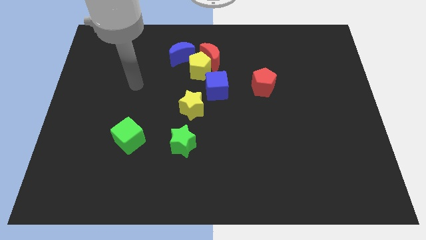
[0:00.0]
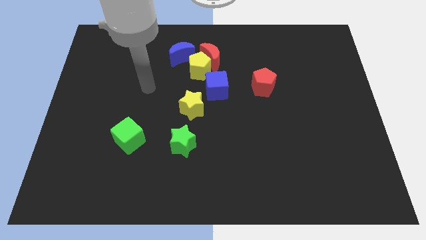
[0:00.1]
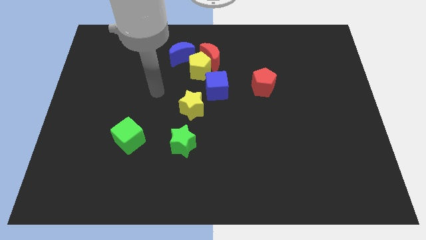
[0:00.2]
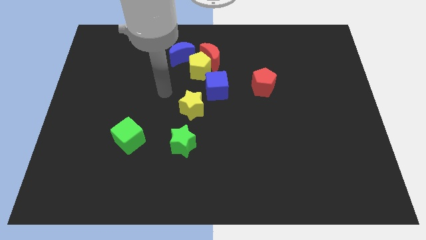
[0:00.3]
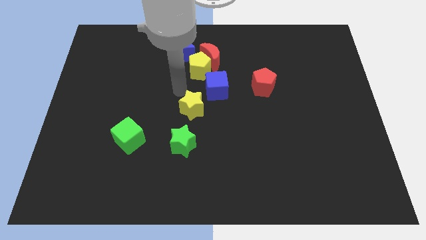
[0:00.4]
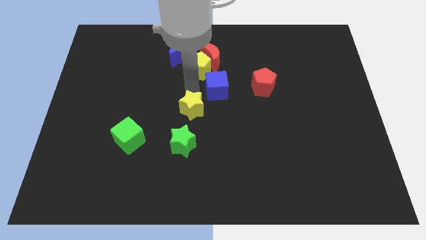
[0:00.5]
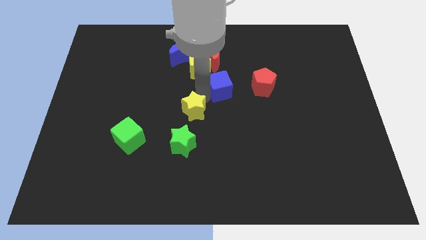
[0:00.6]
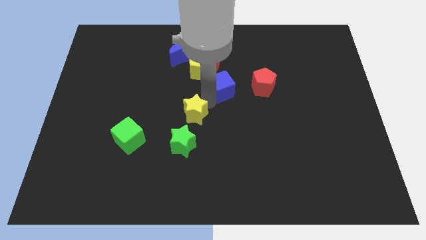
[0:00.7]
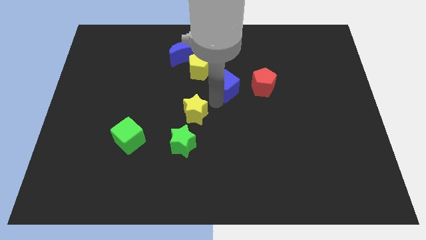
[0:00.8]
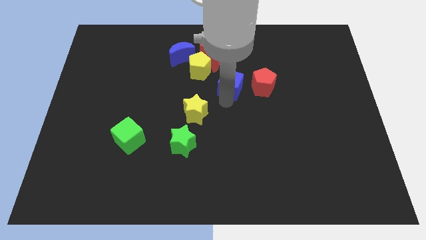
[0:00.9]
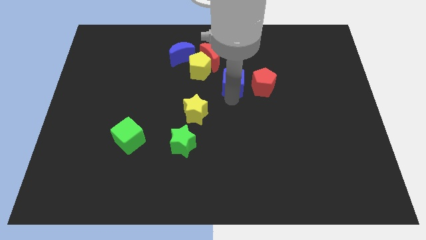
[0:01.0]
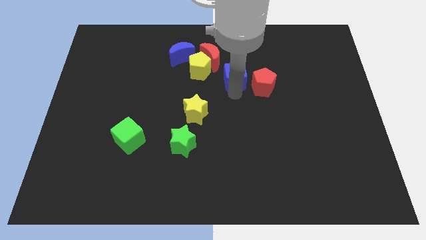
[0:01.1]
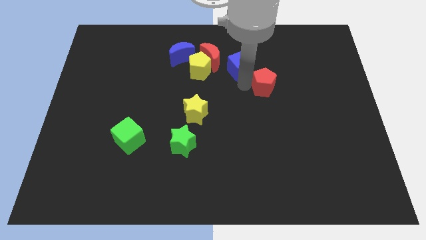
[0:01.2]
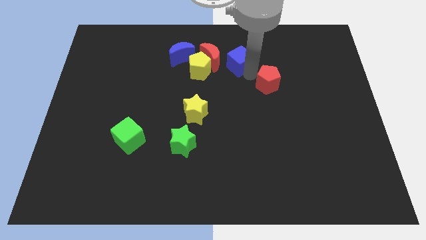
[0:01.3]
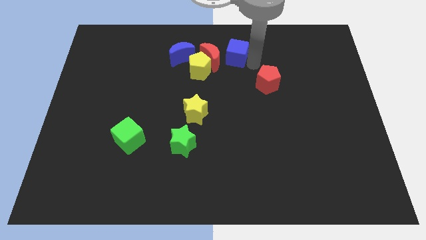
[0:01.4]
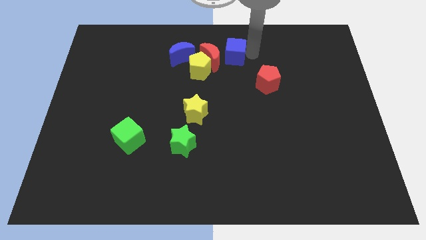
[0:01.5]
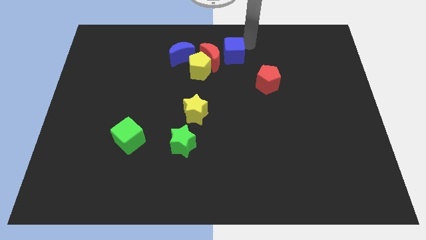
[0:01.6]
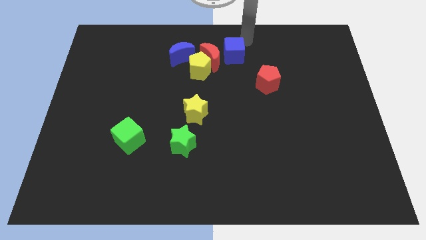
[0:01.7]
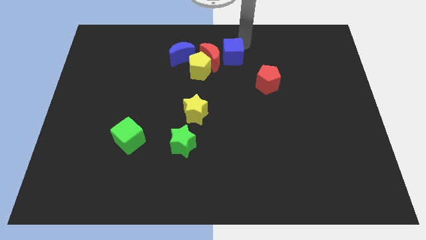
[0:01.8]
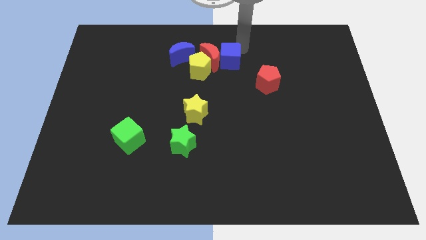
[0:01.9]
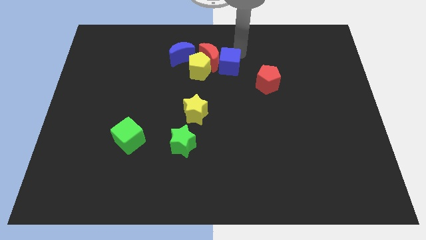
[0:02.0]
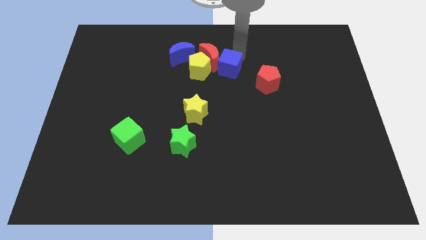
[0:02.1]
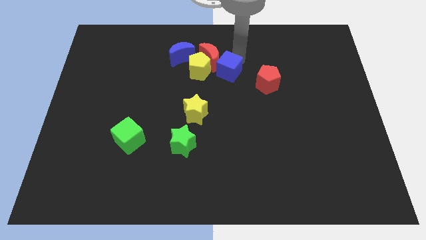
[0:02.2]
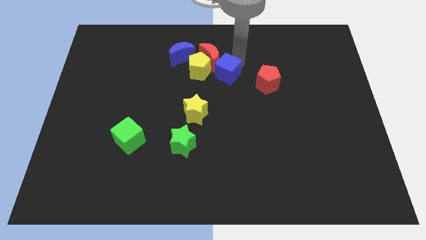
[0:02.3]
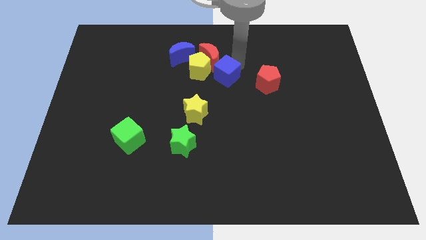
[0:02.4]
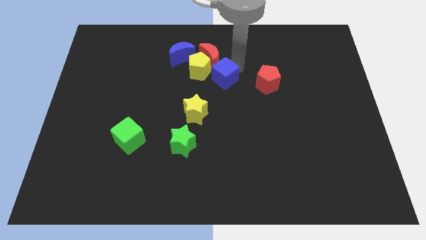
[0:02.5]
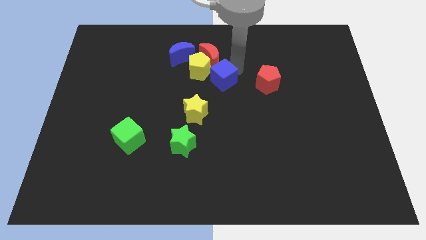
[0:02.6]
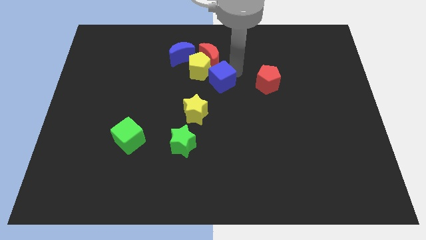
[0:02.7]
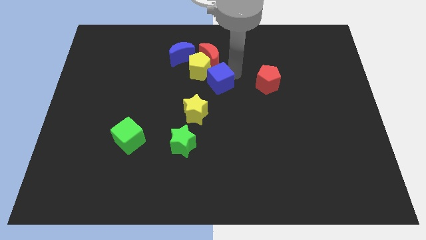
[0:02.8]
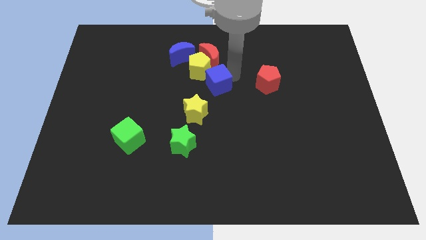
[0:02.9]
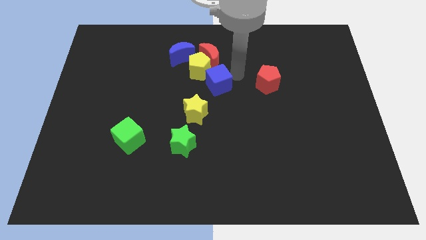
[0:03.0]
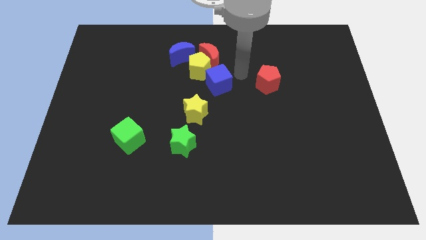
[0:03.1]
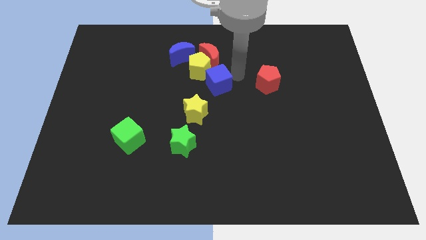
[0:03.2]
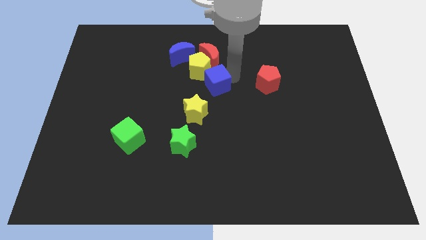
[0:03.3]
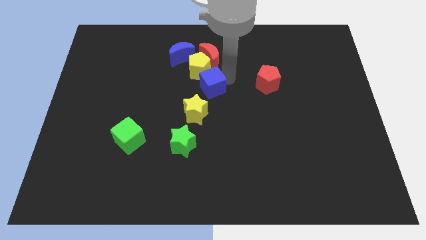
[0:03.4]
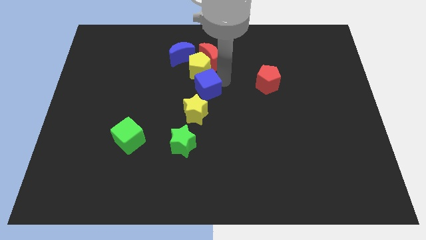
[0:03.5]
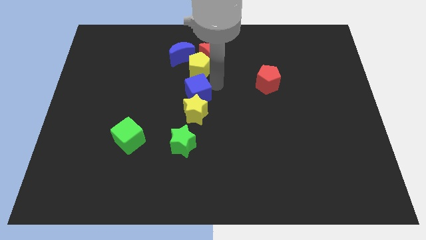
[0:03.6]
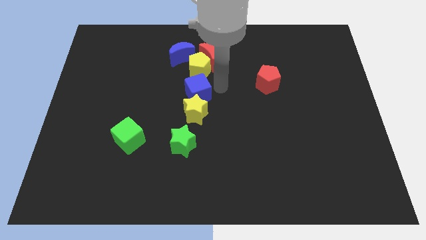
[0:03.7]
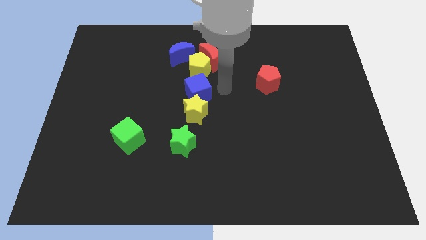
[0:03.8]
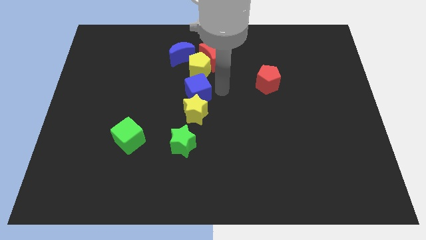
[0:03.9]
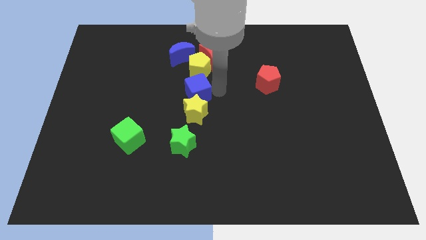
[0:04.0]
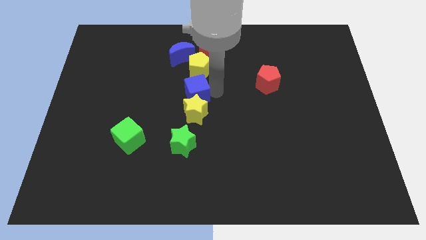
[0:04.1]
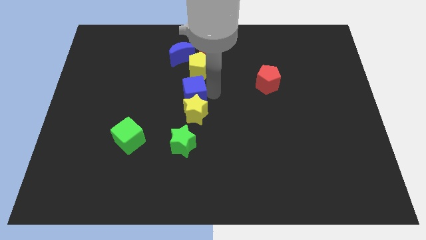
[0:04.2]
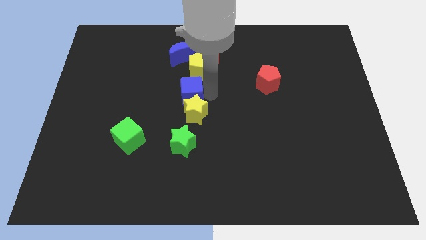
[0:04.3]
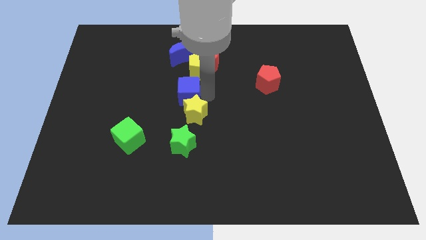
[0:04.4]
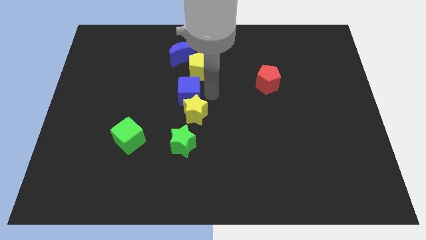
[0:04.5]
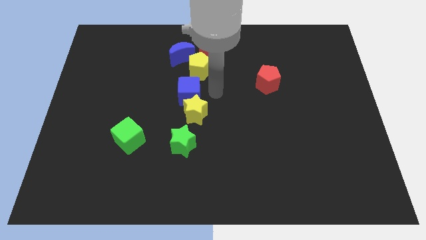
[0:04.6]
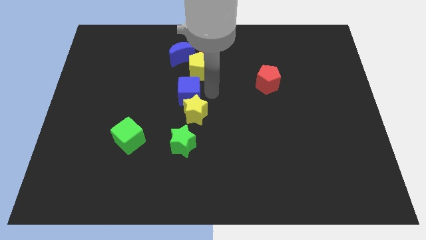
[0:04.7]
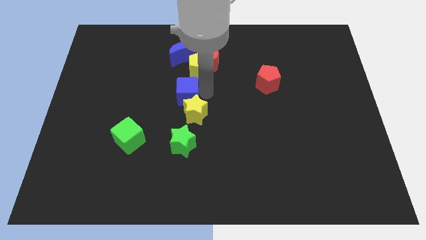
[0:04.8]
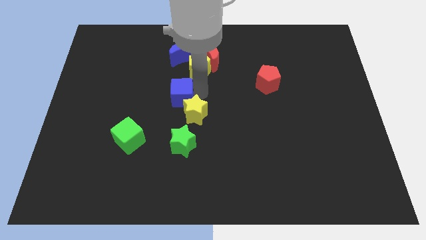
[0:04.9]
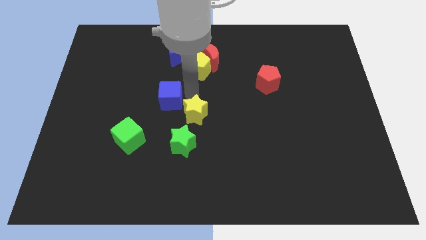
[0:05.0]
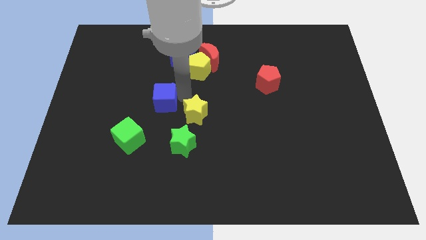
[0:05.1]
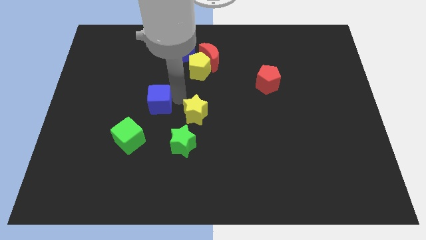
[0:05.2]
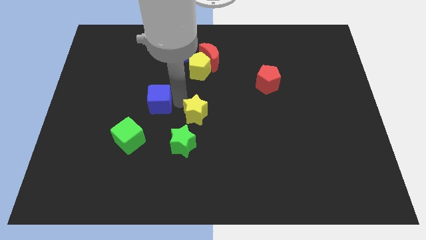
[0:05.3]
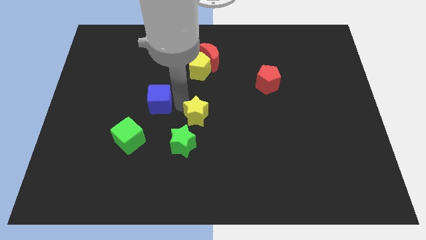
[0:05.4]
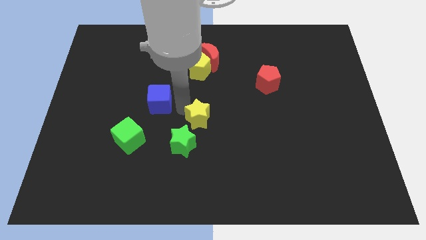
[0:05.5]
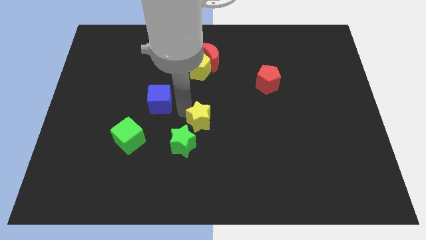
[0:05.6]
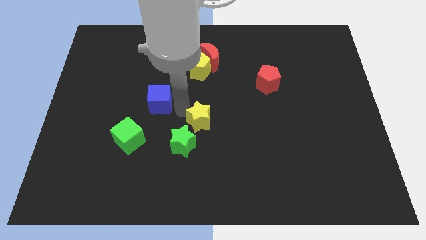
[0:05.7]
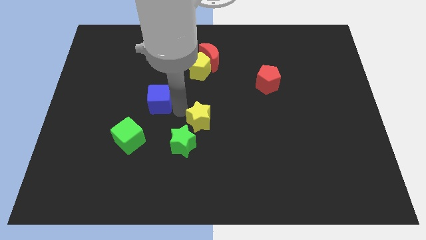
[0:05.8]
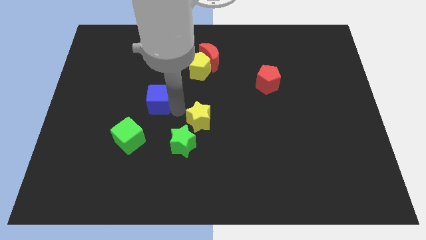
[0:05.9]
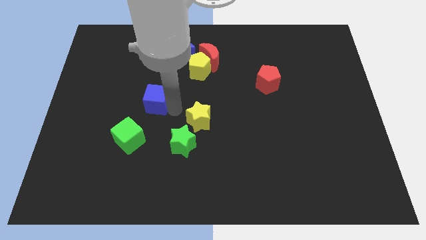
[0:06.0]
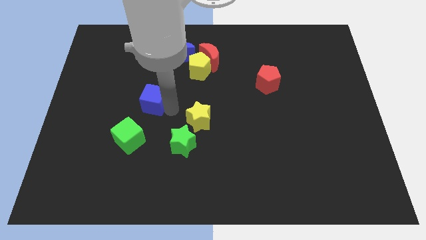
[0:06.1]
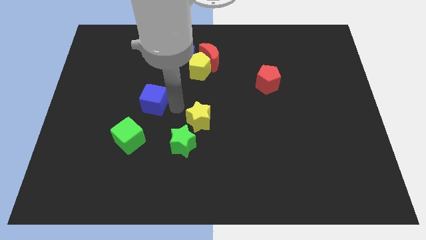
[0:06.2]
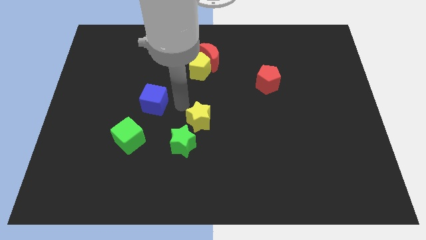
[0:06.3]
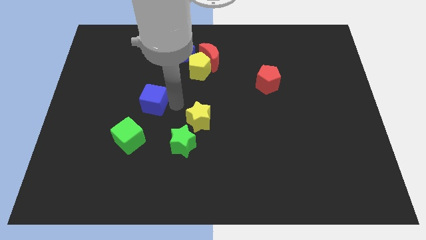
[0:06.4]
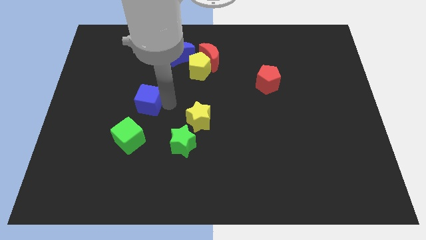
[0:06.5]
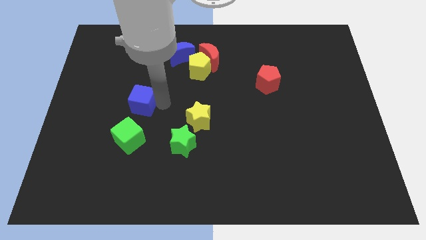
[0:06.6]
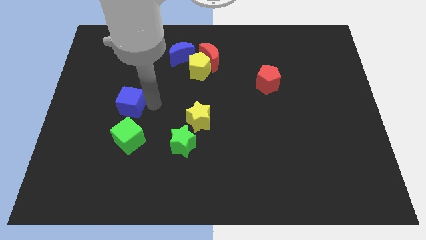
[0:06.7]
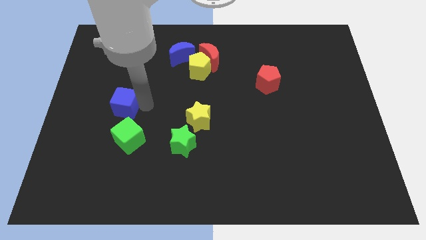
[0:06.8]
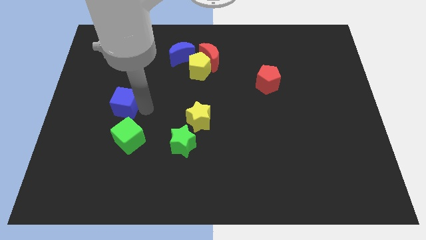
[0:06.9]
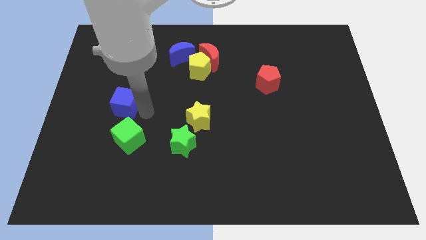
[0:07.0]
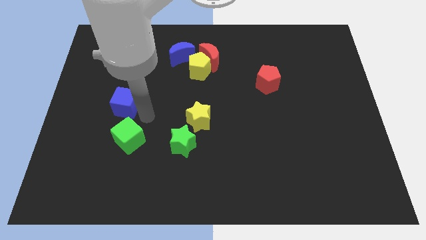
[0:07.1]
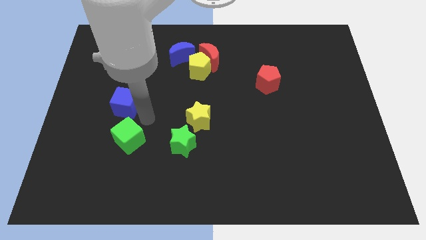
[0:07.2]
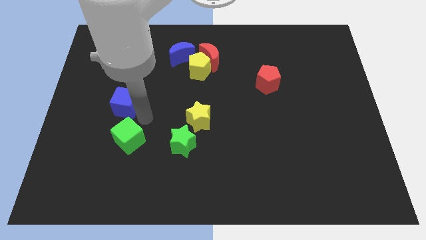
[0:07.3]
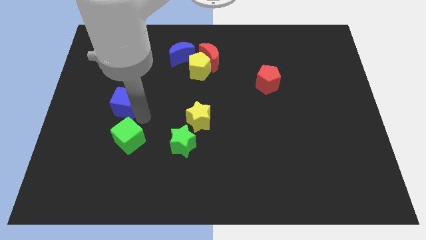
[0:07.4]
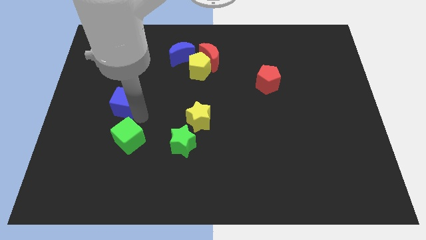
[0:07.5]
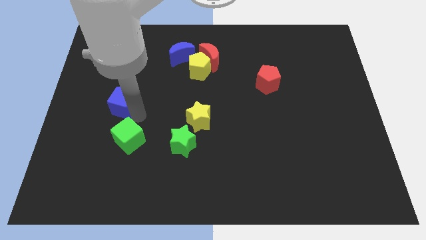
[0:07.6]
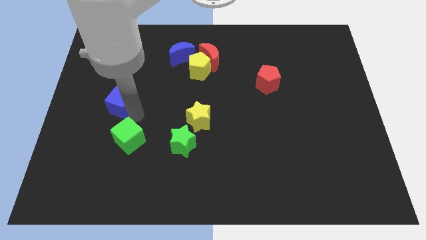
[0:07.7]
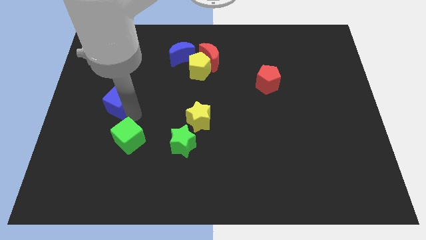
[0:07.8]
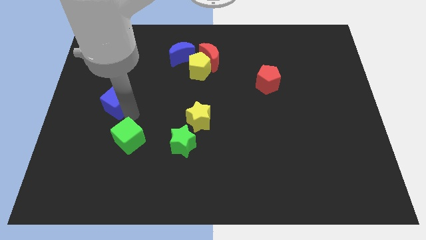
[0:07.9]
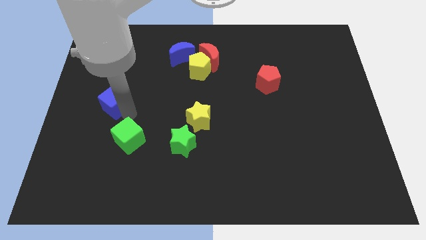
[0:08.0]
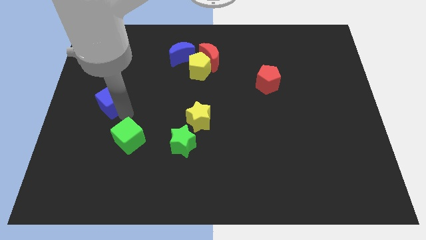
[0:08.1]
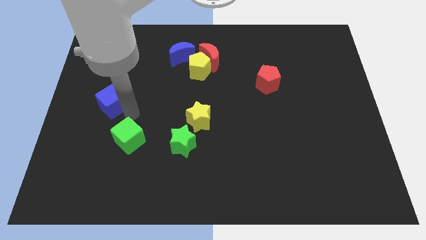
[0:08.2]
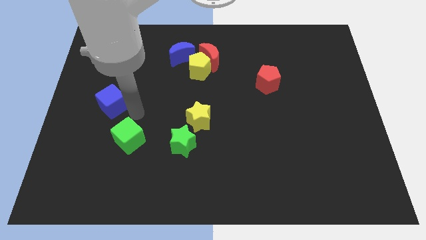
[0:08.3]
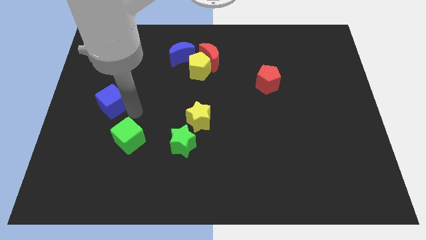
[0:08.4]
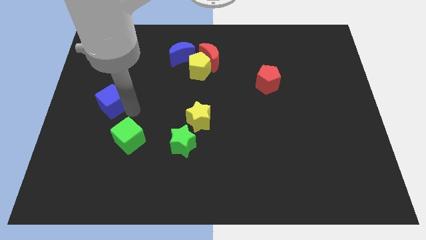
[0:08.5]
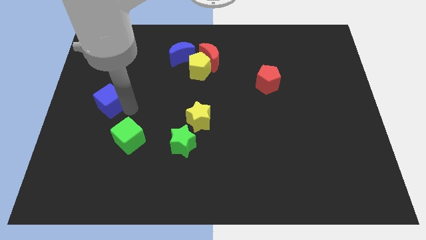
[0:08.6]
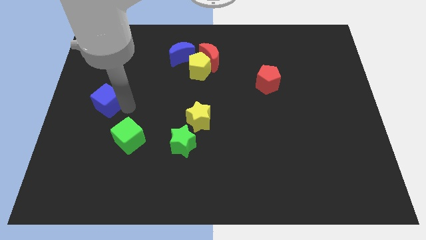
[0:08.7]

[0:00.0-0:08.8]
move the blue cube to the left side of the board
